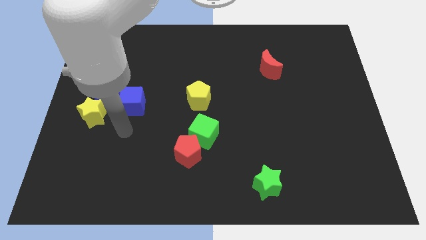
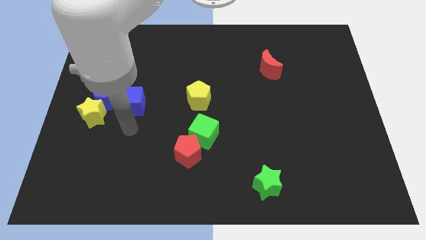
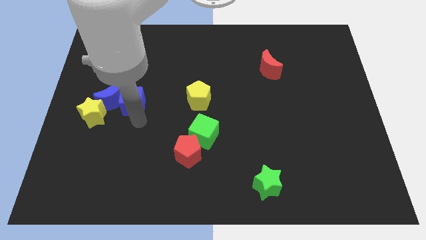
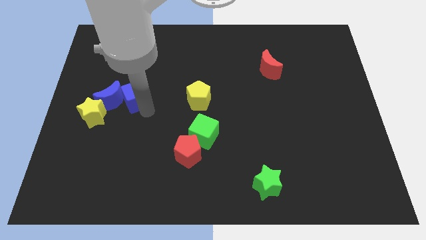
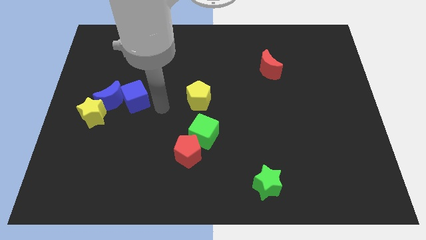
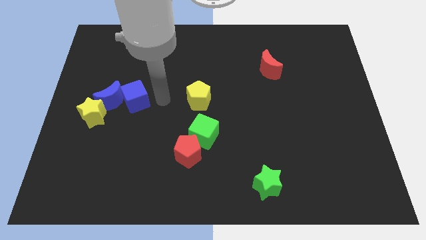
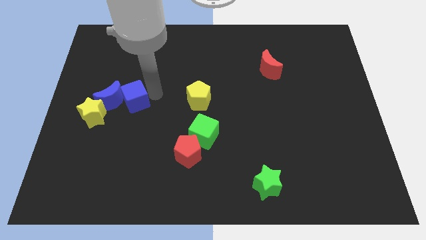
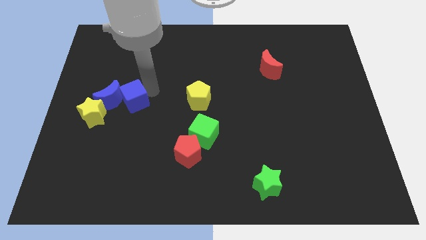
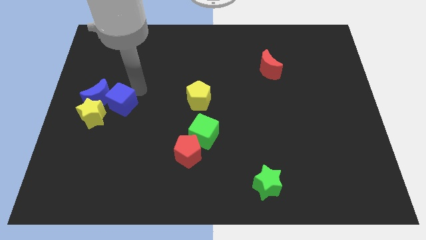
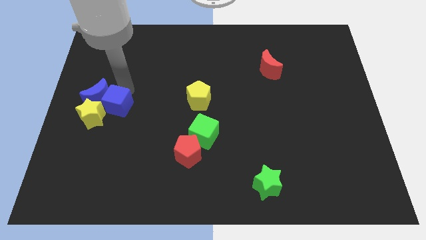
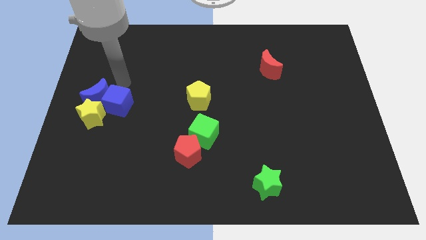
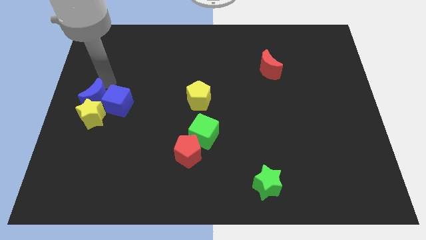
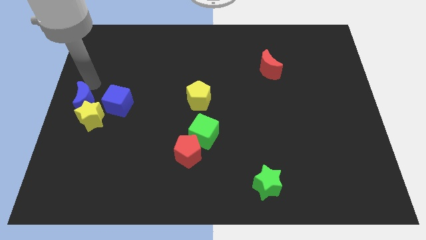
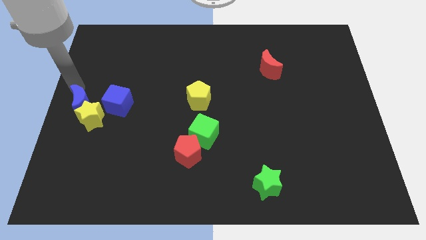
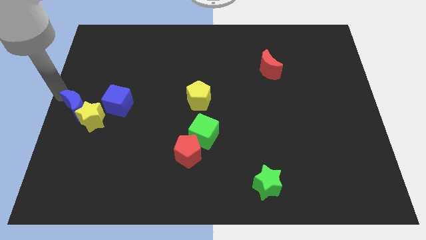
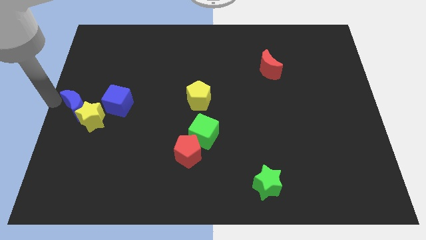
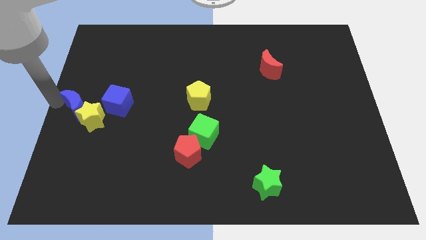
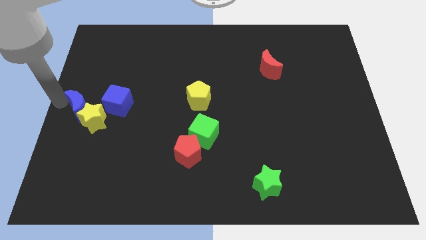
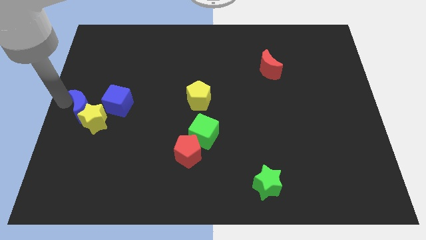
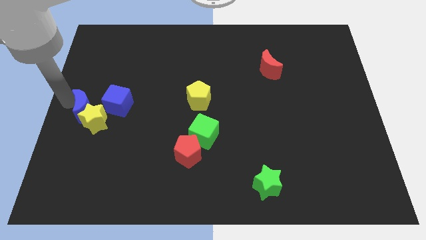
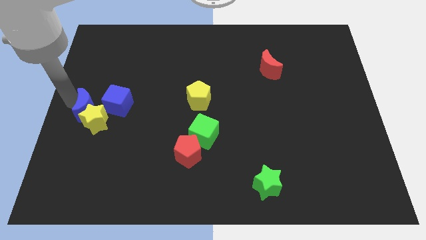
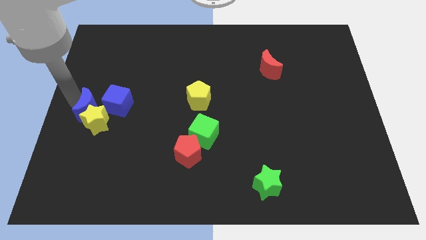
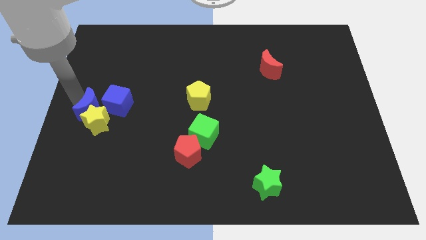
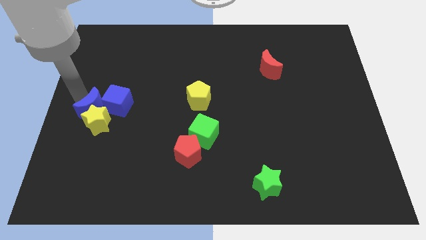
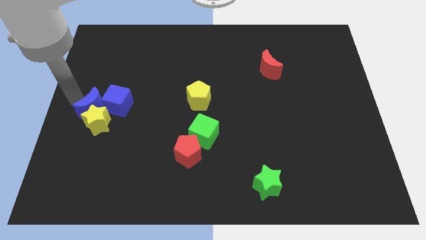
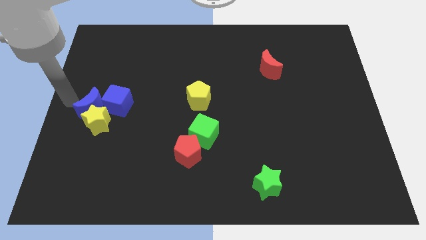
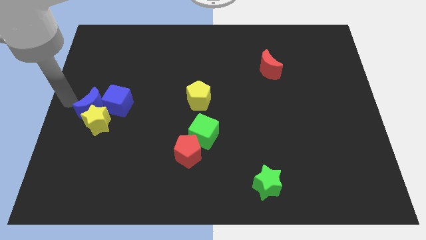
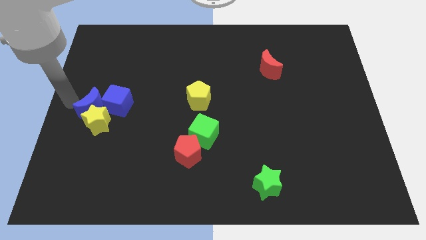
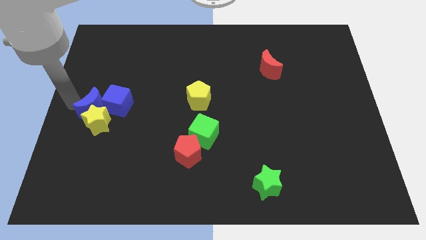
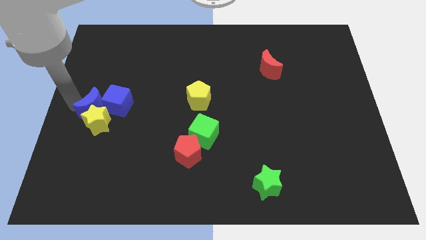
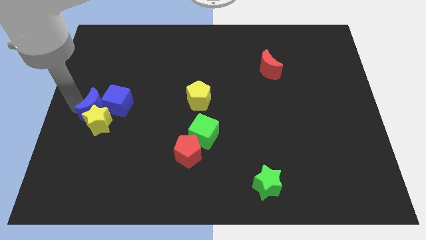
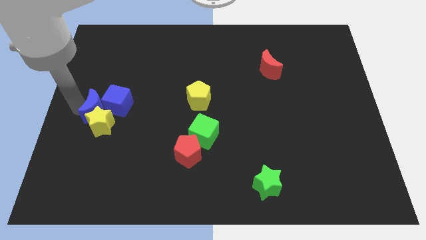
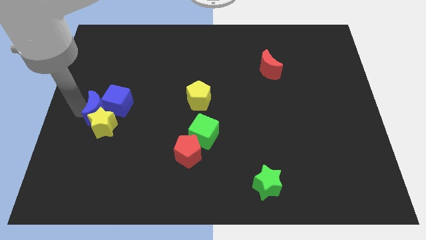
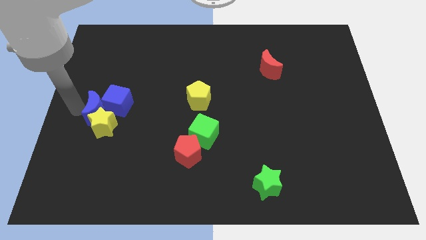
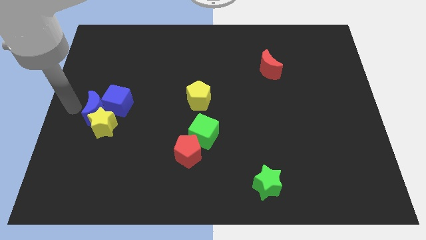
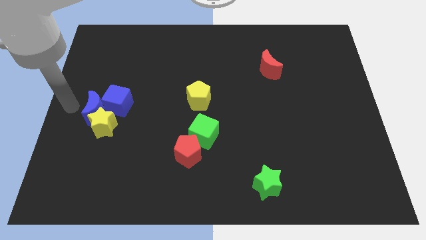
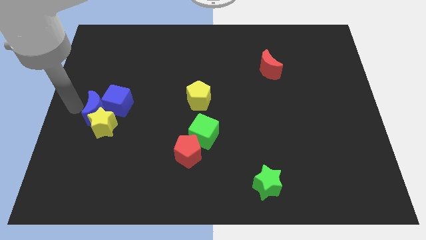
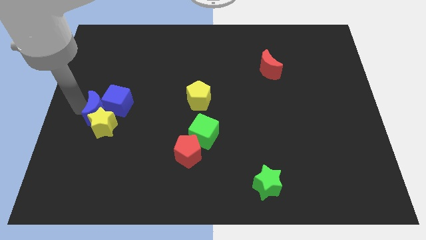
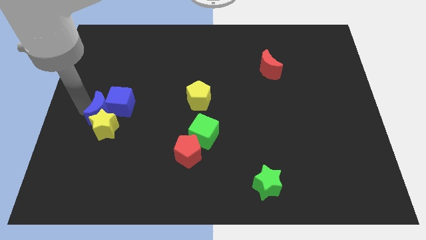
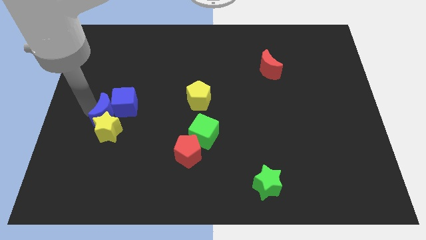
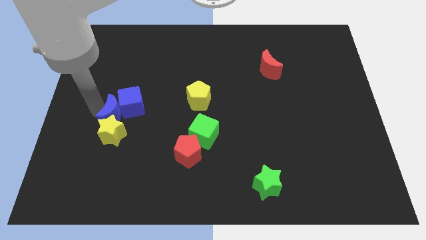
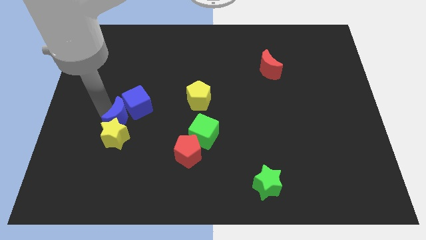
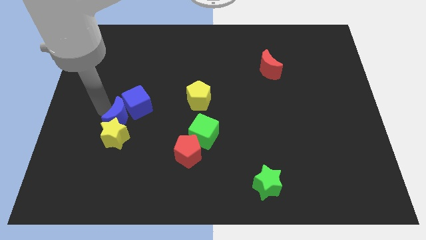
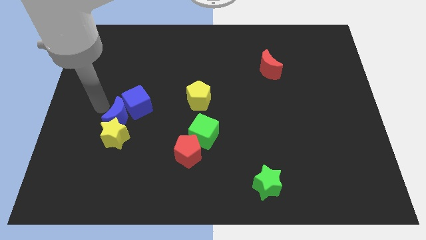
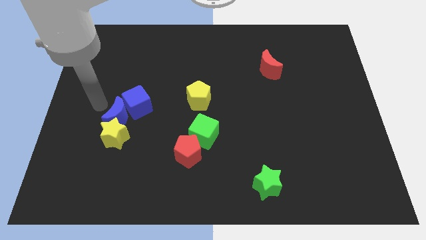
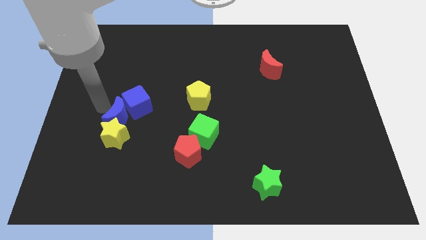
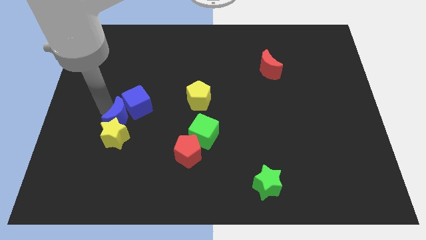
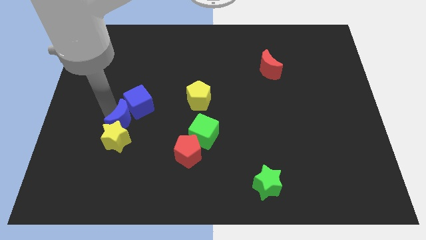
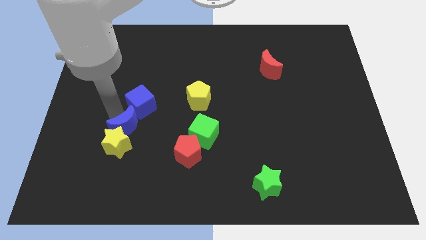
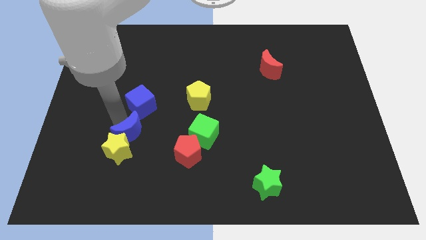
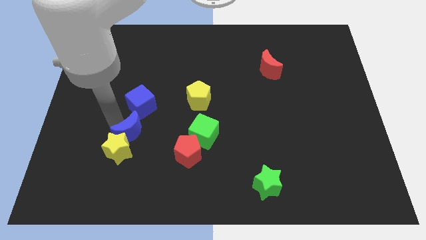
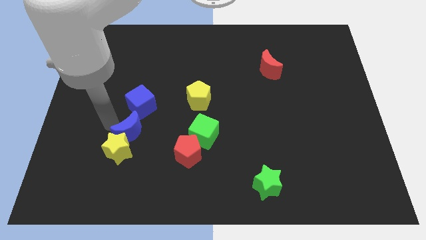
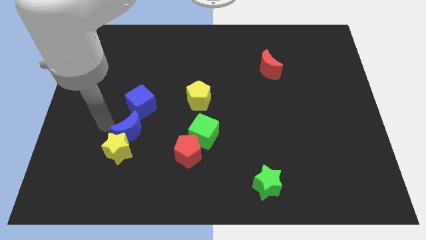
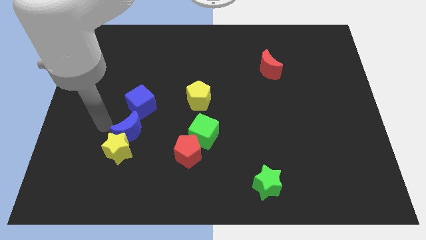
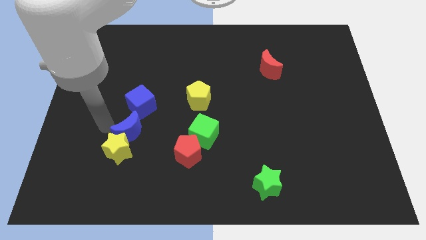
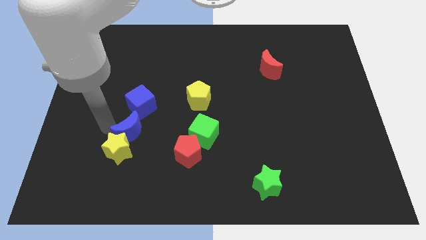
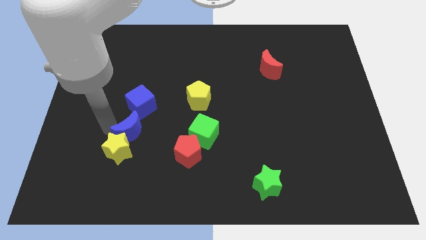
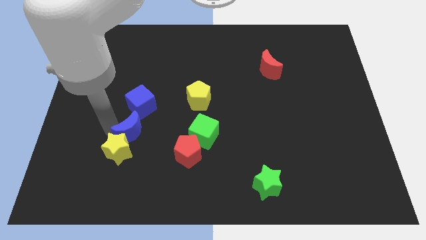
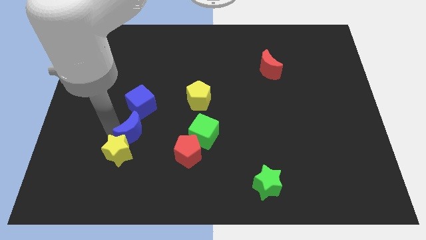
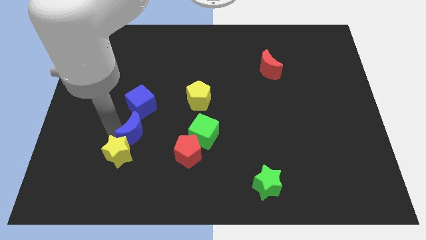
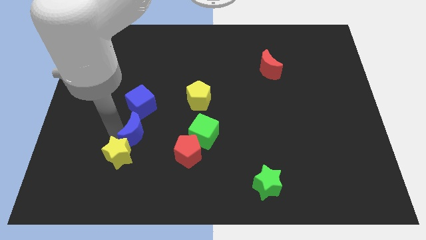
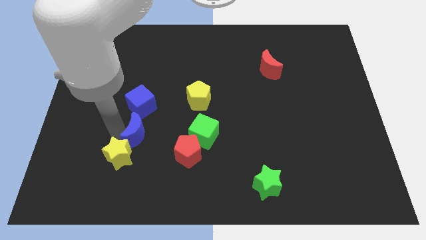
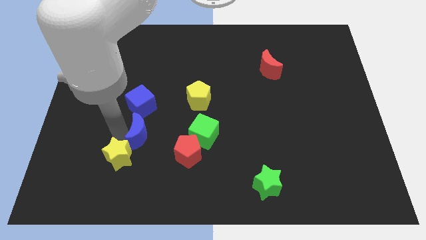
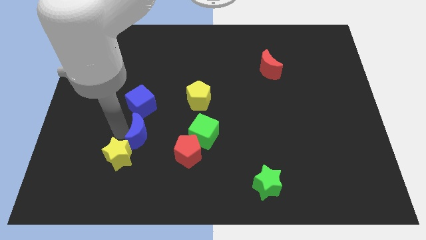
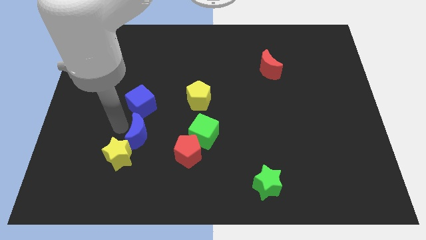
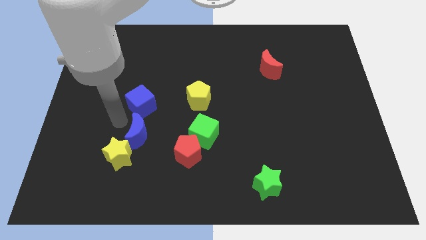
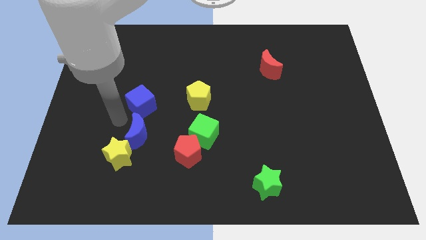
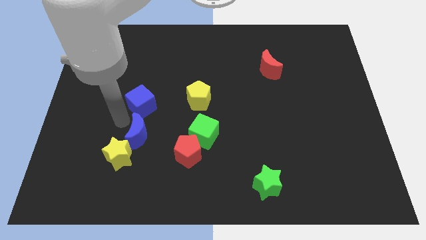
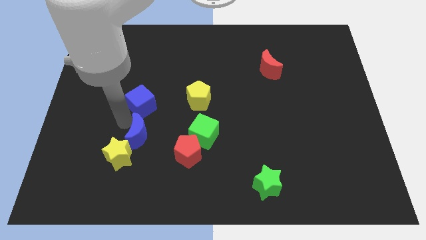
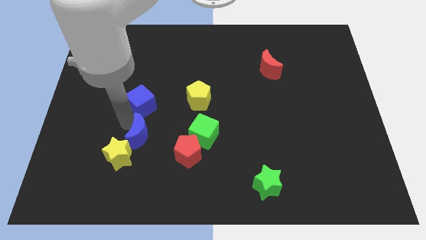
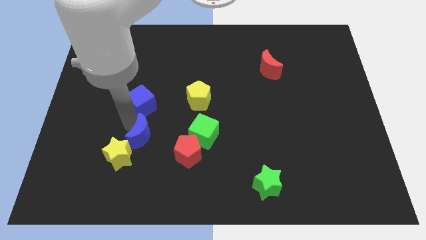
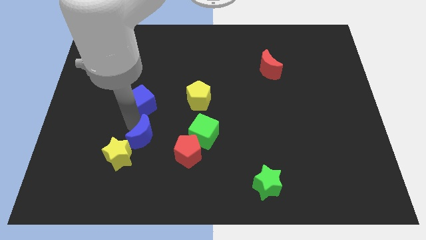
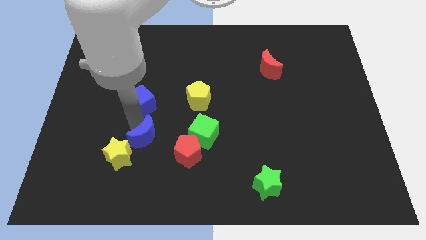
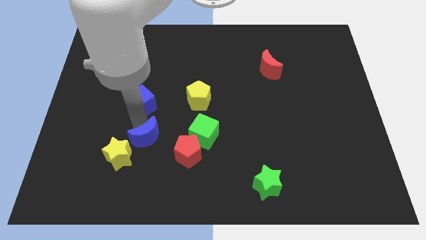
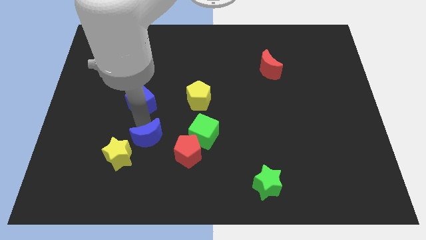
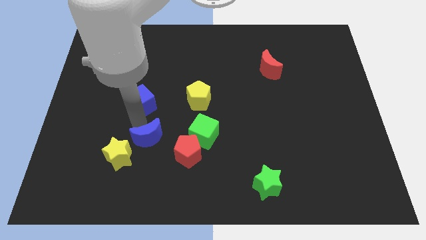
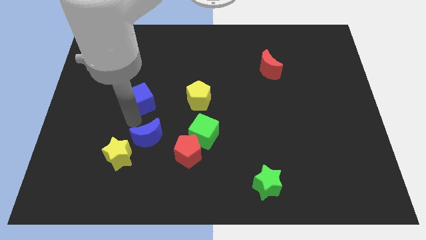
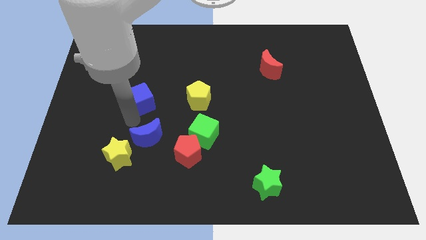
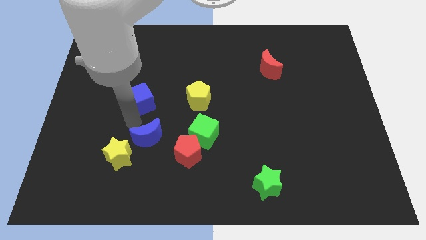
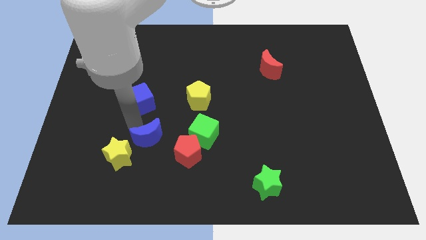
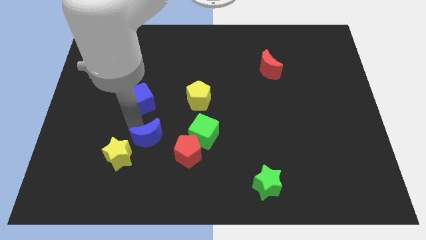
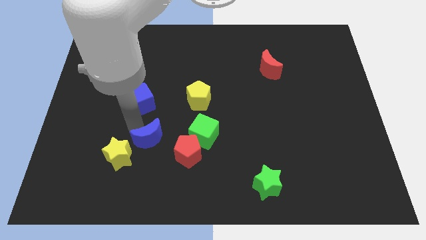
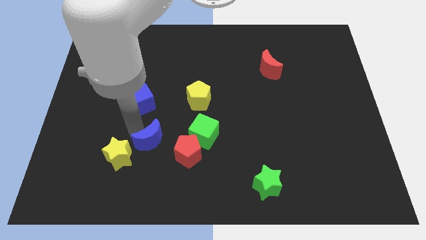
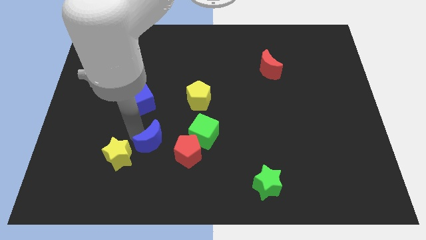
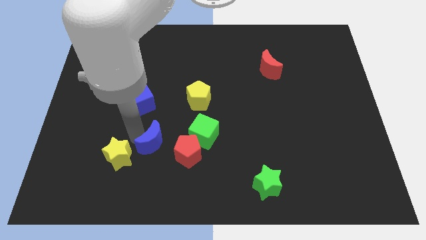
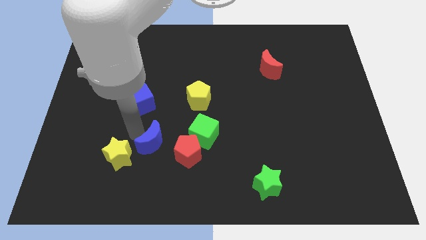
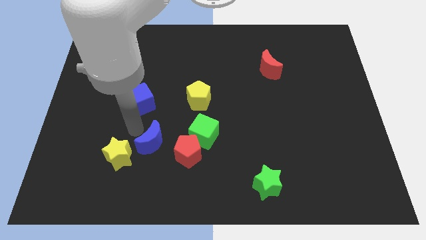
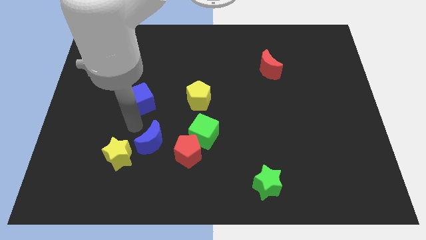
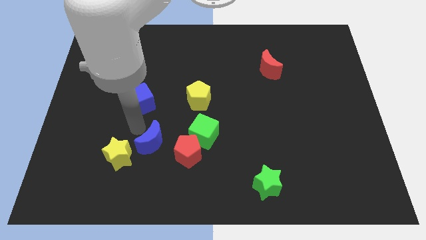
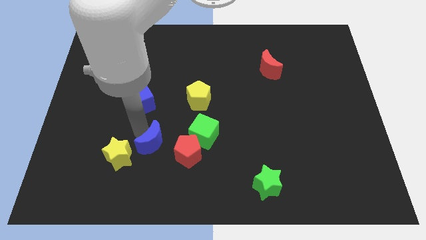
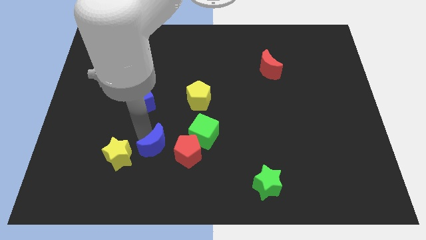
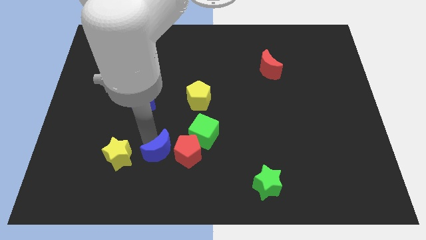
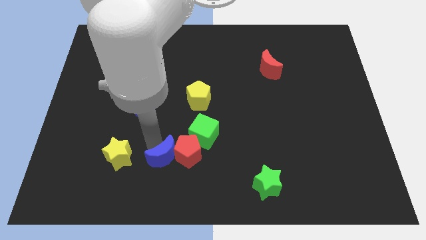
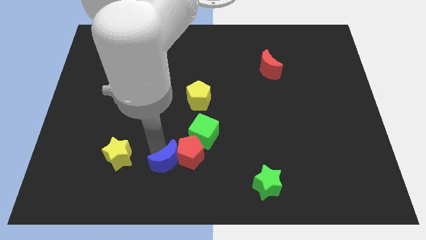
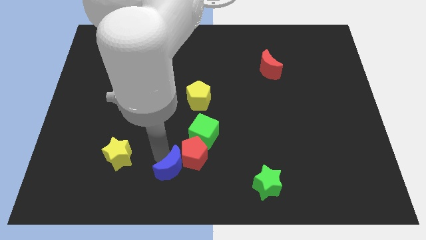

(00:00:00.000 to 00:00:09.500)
put the blue moon to the bottom side
